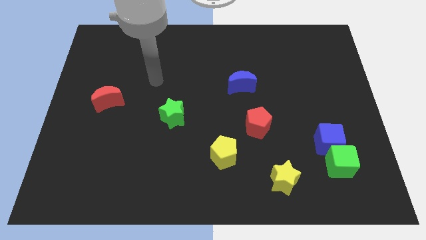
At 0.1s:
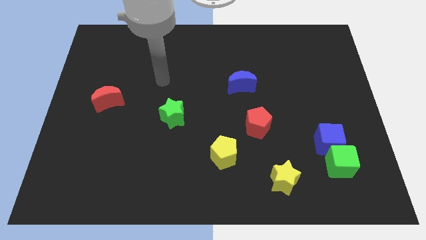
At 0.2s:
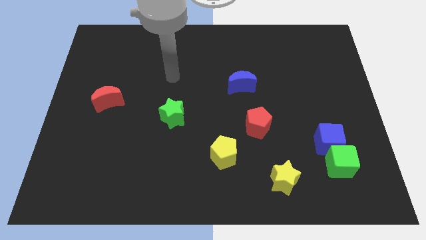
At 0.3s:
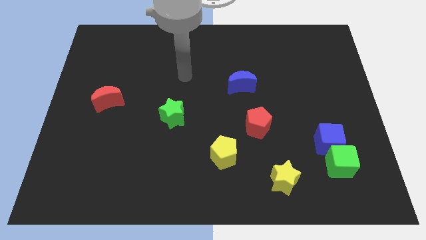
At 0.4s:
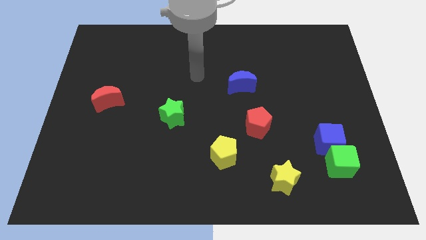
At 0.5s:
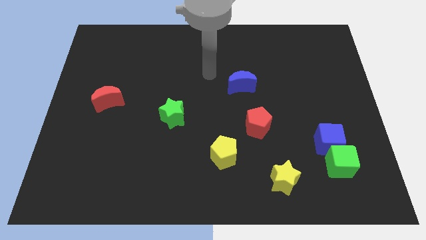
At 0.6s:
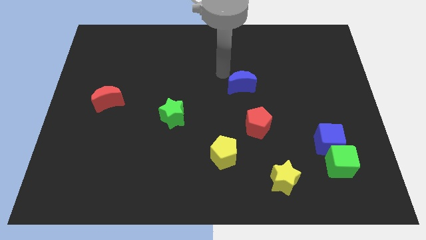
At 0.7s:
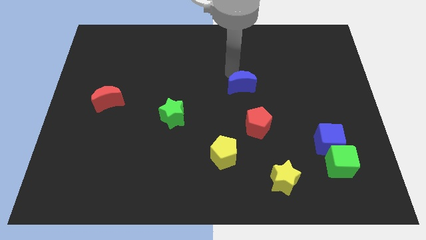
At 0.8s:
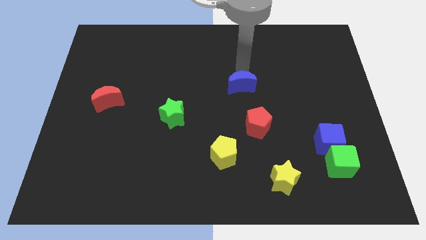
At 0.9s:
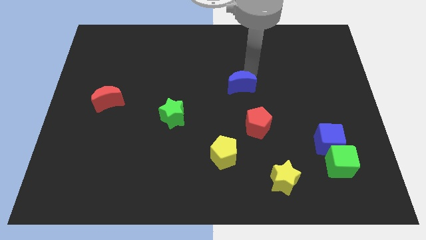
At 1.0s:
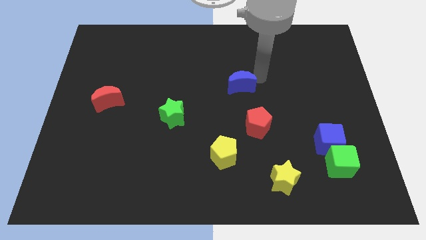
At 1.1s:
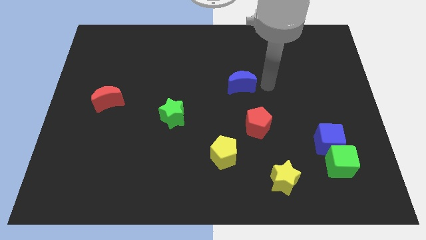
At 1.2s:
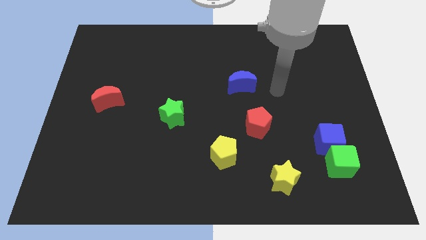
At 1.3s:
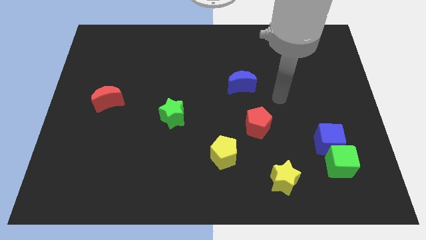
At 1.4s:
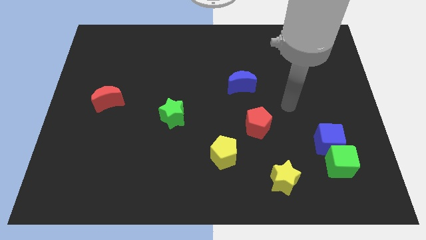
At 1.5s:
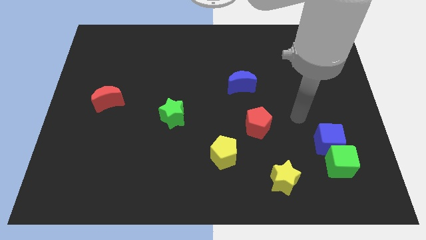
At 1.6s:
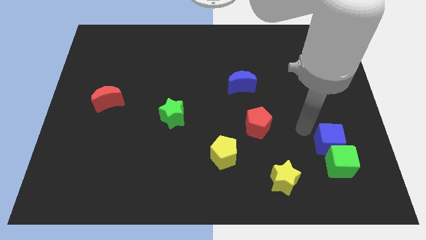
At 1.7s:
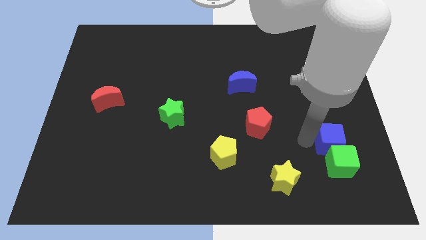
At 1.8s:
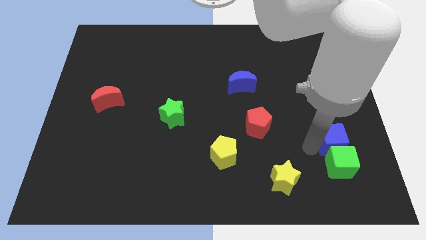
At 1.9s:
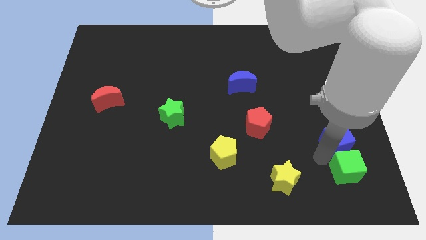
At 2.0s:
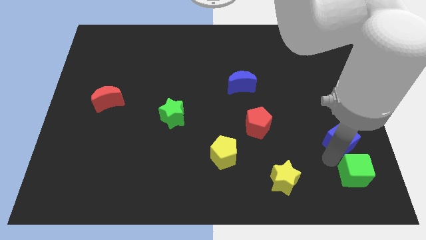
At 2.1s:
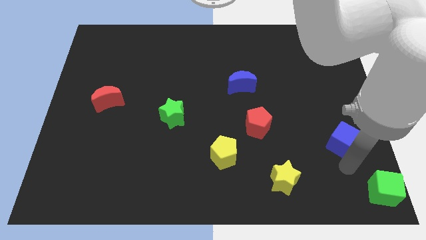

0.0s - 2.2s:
separate the blue cube from the green cube

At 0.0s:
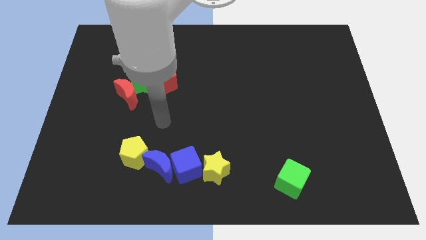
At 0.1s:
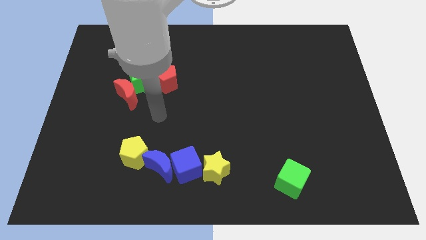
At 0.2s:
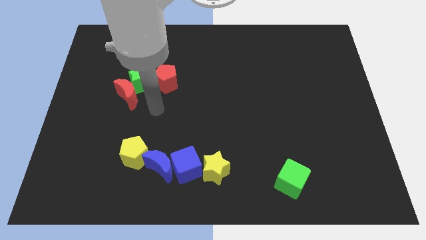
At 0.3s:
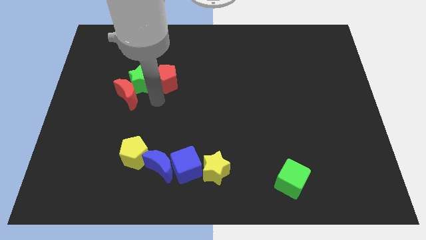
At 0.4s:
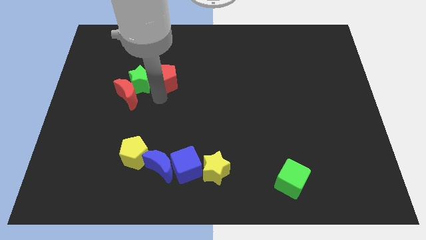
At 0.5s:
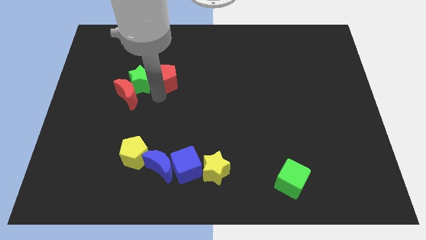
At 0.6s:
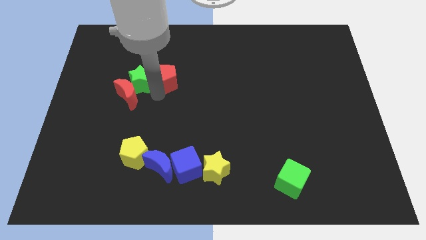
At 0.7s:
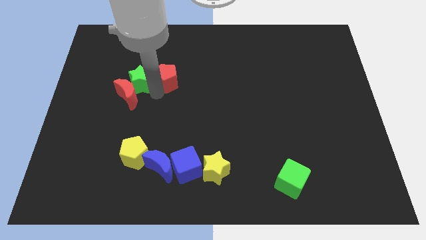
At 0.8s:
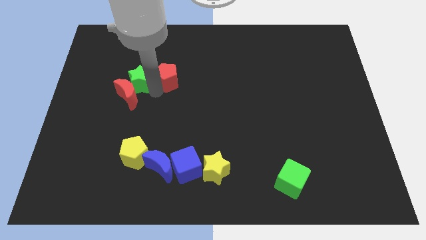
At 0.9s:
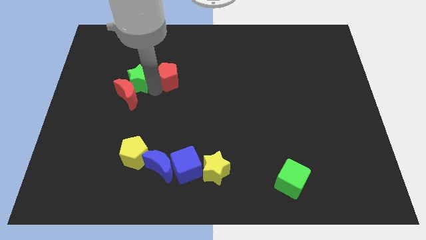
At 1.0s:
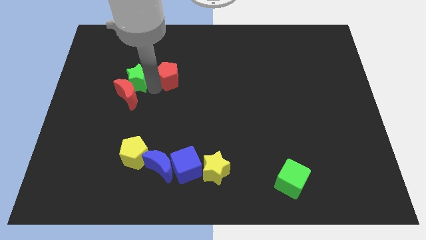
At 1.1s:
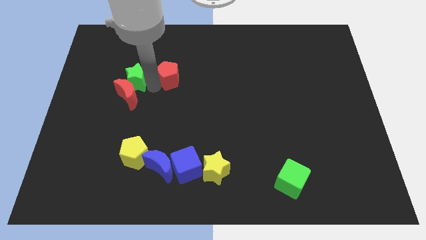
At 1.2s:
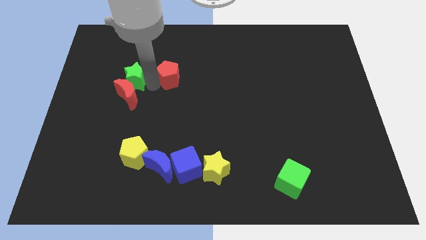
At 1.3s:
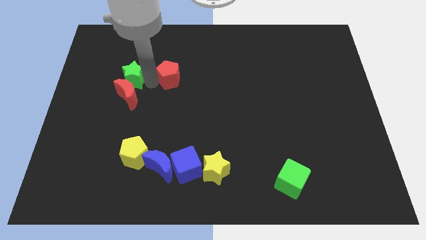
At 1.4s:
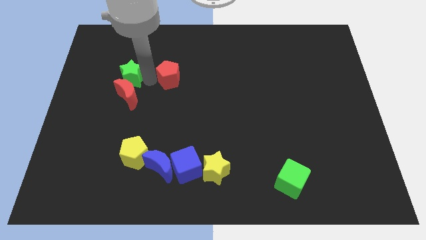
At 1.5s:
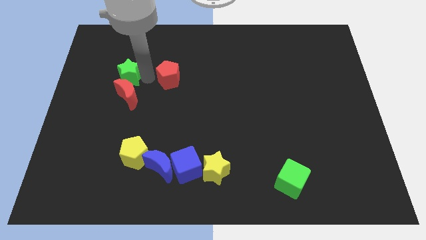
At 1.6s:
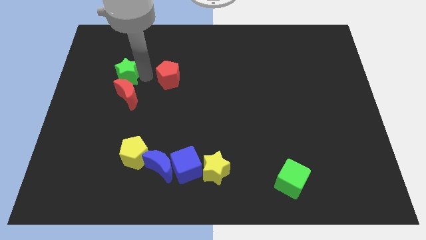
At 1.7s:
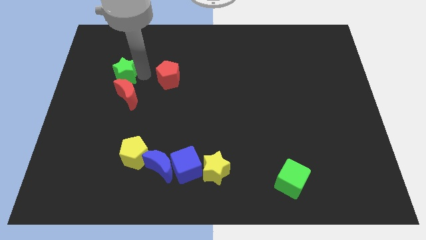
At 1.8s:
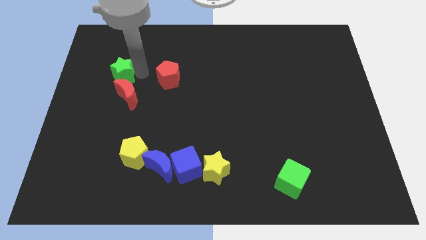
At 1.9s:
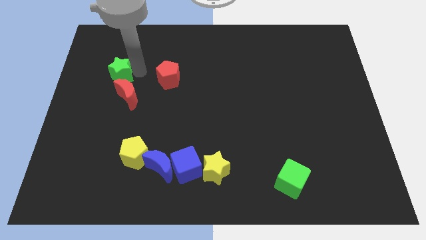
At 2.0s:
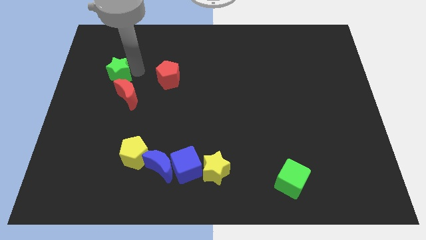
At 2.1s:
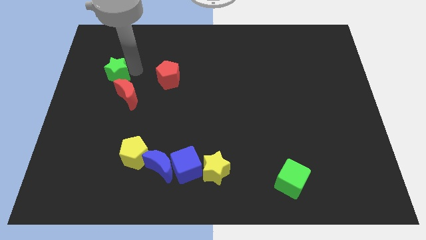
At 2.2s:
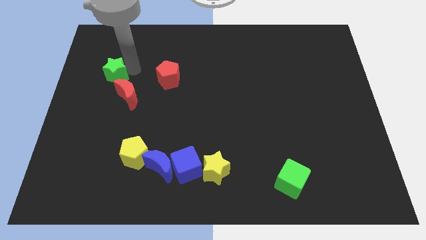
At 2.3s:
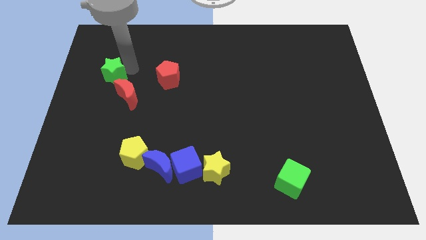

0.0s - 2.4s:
separate the green star from the red moon and red pentagon

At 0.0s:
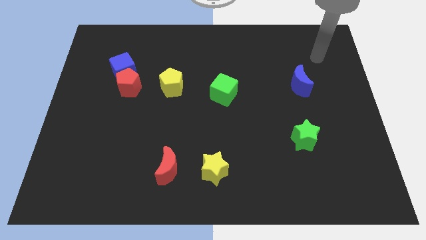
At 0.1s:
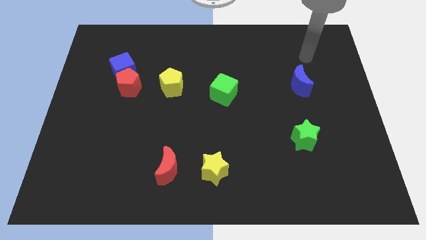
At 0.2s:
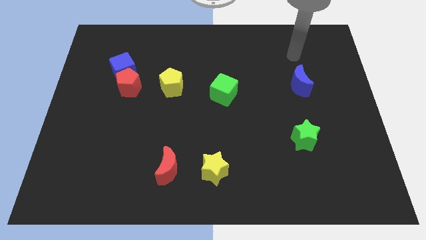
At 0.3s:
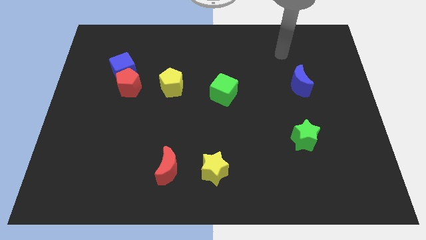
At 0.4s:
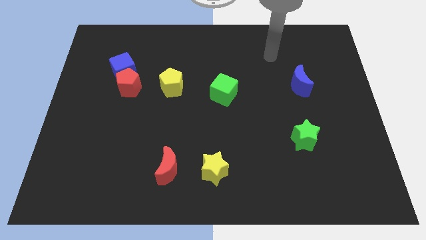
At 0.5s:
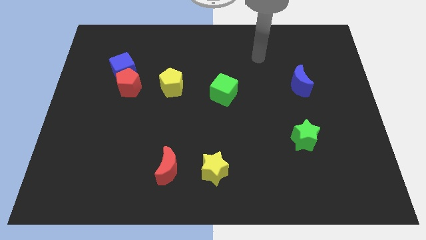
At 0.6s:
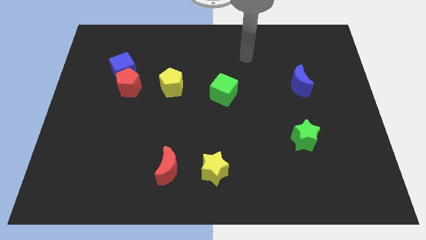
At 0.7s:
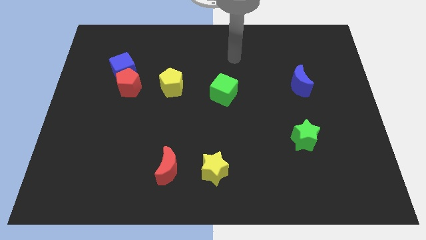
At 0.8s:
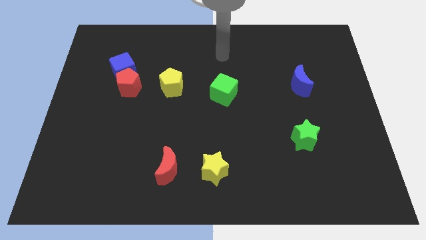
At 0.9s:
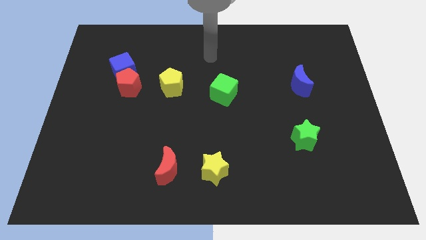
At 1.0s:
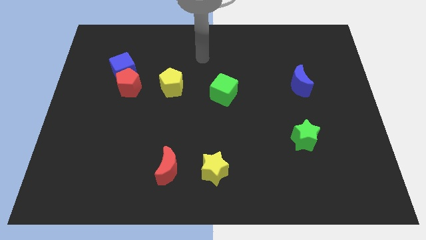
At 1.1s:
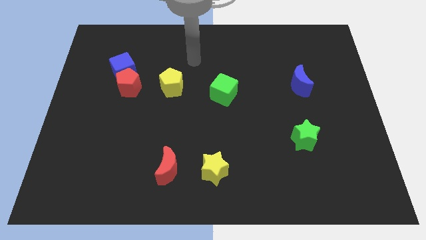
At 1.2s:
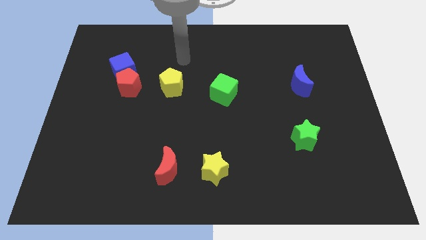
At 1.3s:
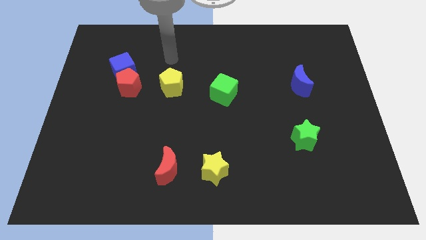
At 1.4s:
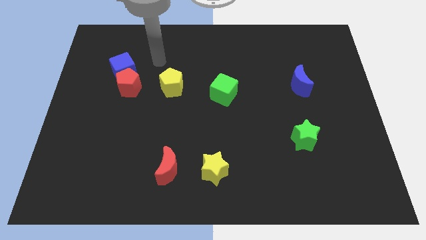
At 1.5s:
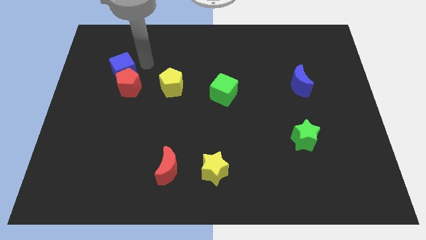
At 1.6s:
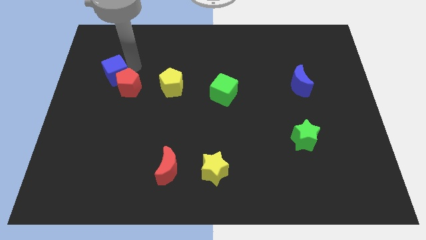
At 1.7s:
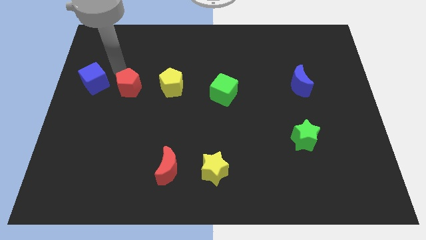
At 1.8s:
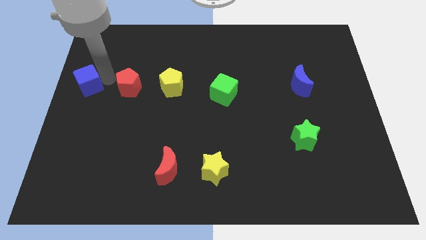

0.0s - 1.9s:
pull the red pentagon apart from the blue cube

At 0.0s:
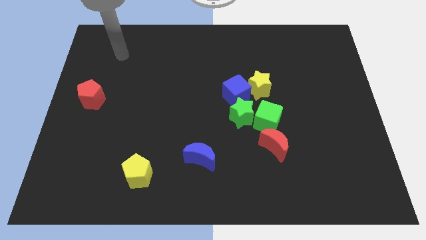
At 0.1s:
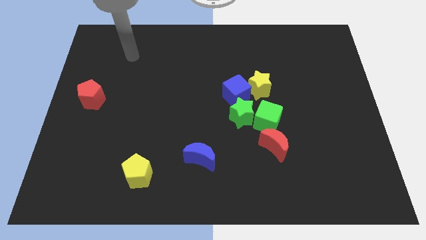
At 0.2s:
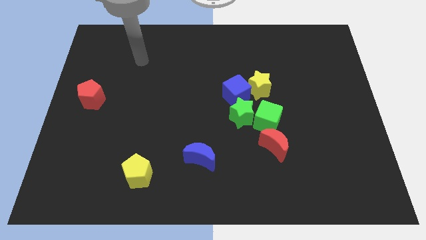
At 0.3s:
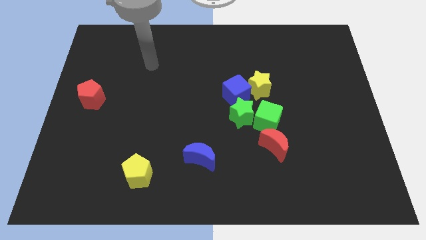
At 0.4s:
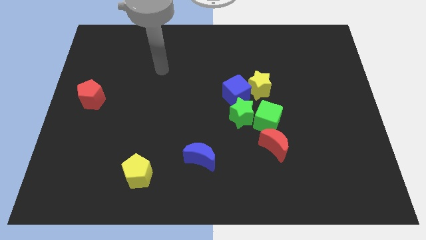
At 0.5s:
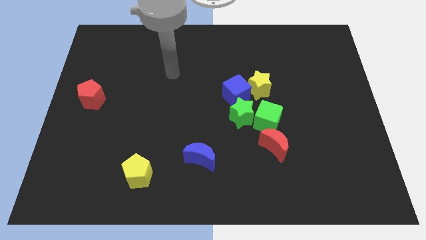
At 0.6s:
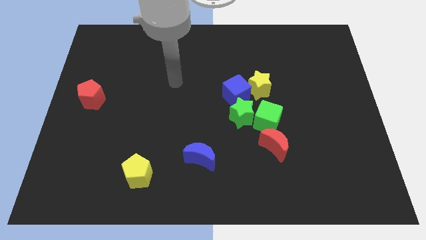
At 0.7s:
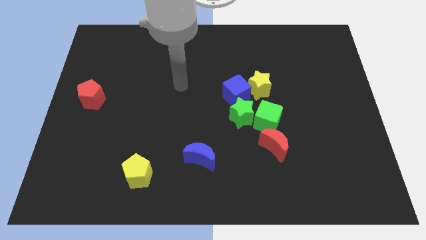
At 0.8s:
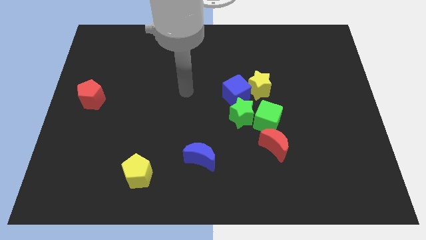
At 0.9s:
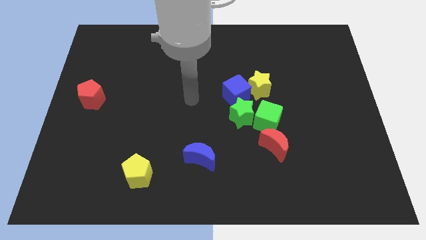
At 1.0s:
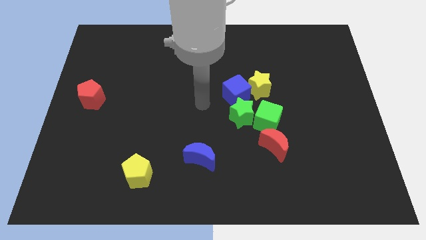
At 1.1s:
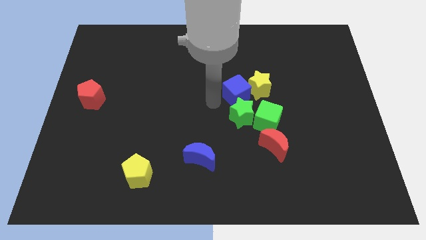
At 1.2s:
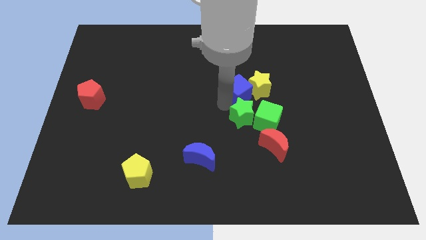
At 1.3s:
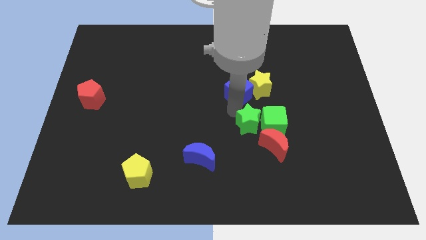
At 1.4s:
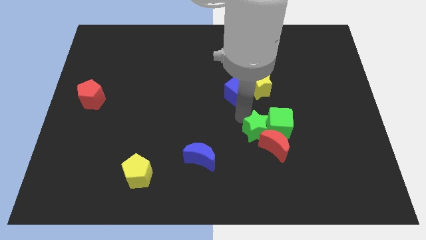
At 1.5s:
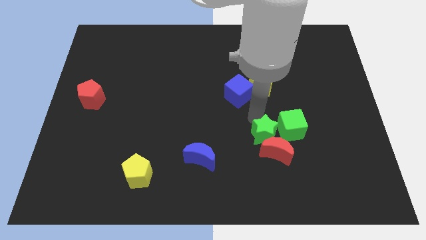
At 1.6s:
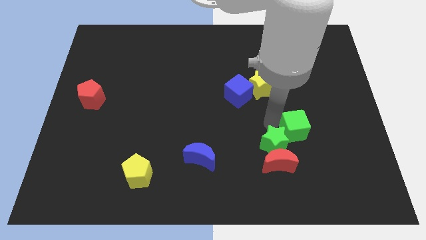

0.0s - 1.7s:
move the red moon away from the green cube

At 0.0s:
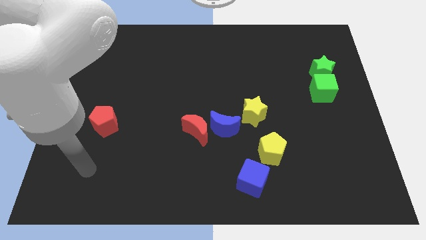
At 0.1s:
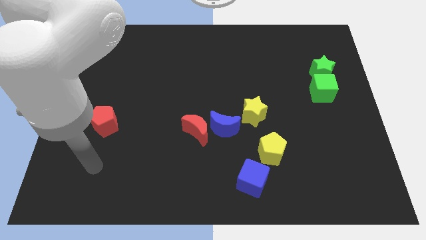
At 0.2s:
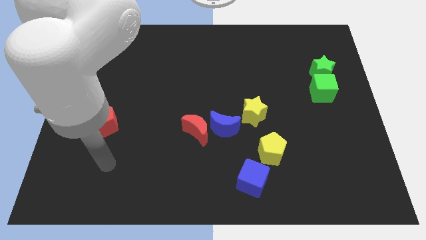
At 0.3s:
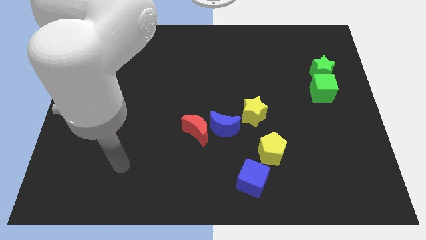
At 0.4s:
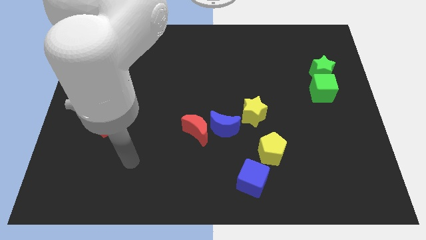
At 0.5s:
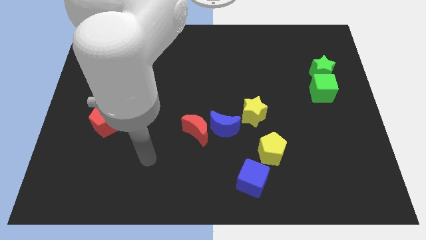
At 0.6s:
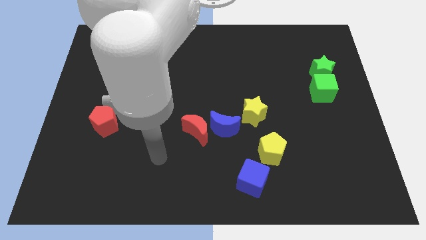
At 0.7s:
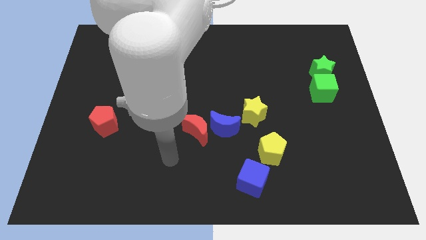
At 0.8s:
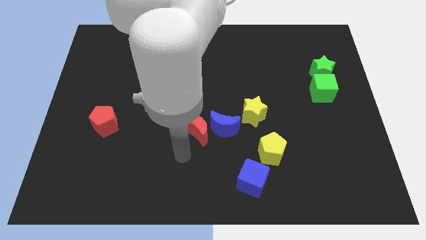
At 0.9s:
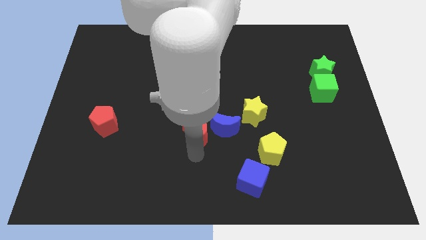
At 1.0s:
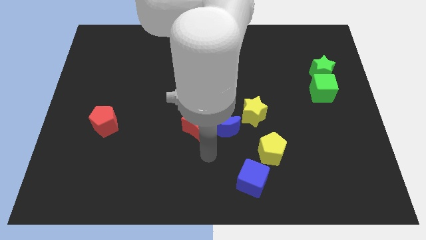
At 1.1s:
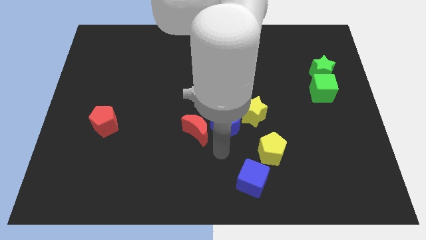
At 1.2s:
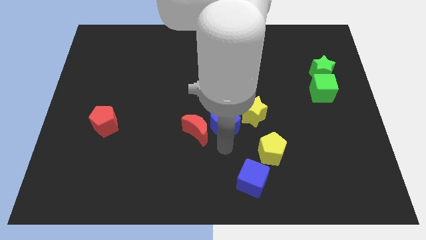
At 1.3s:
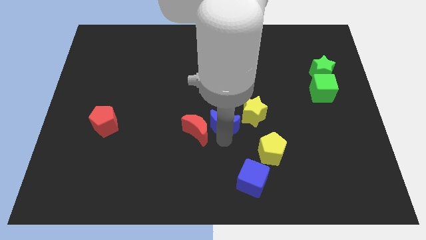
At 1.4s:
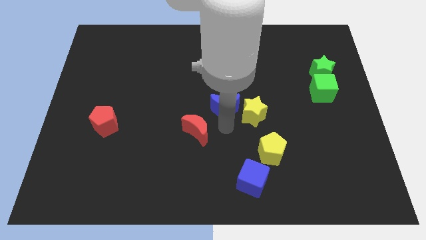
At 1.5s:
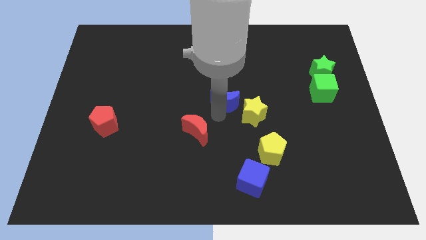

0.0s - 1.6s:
separate the red moon from the blue moon
